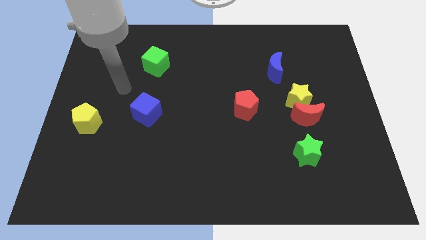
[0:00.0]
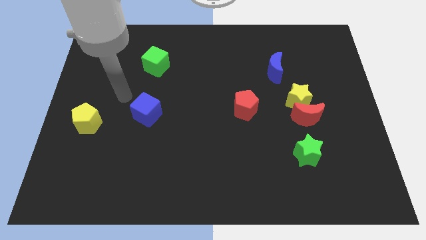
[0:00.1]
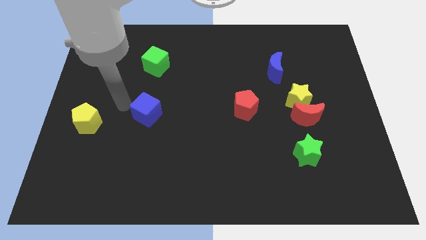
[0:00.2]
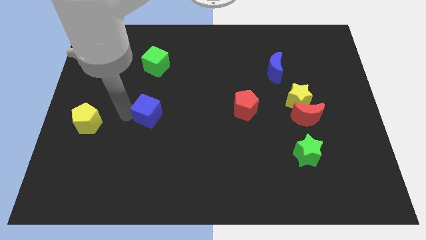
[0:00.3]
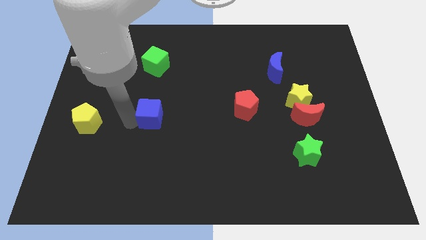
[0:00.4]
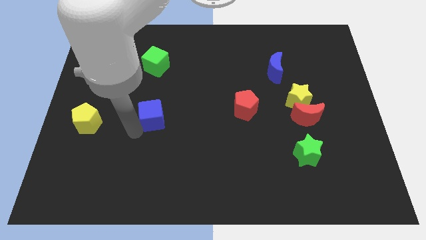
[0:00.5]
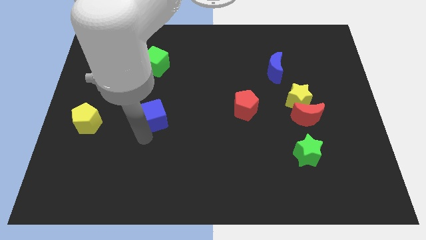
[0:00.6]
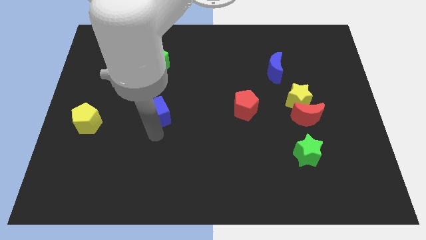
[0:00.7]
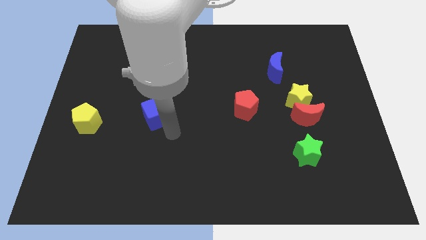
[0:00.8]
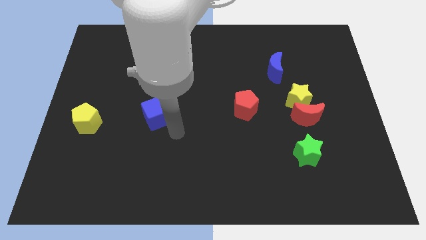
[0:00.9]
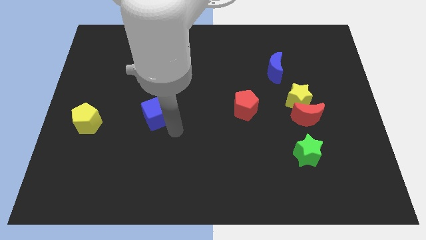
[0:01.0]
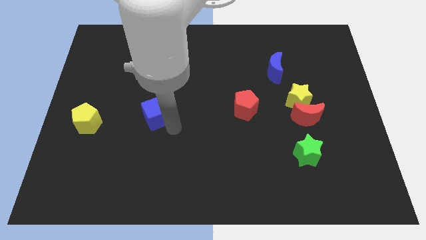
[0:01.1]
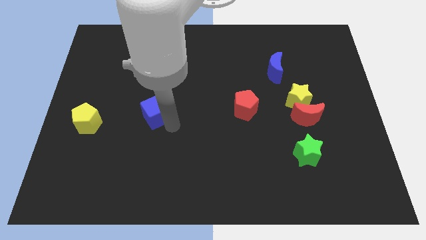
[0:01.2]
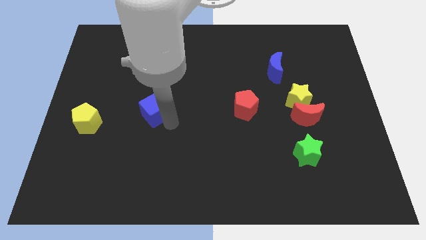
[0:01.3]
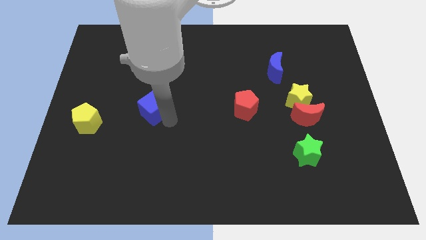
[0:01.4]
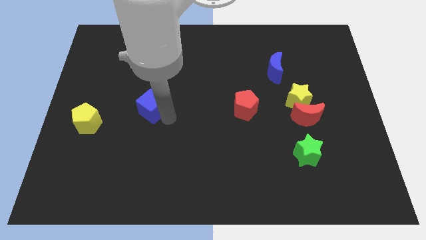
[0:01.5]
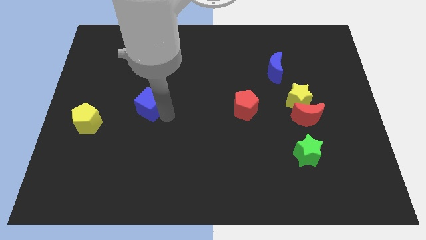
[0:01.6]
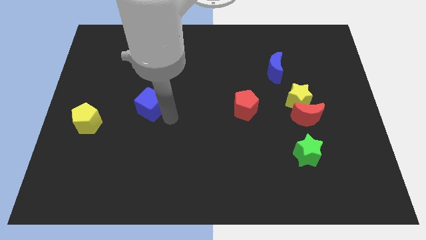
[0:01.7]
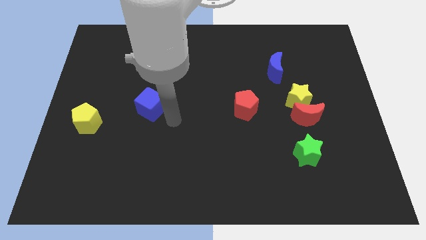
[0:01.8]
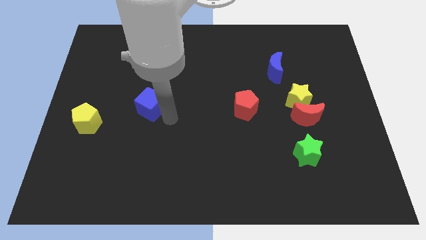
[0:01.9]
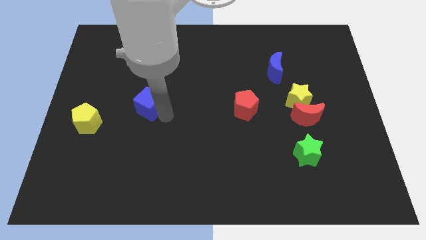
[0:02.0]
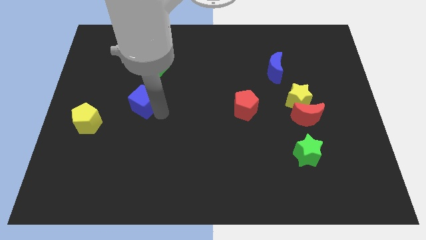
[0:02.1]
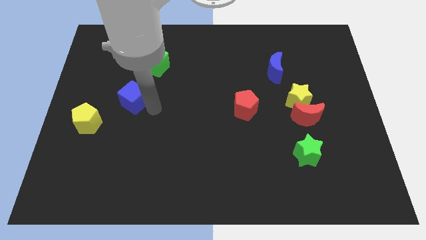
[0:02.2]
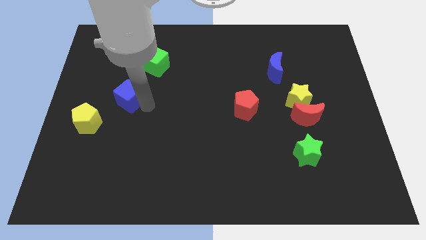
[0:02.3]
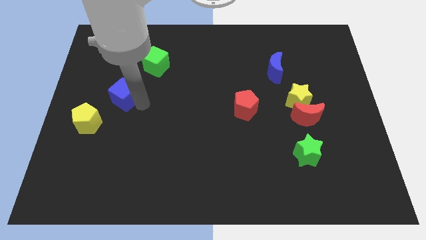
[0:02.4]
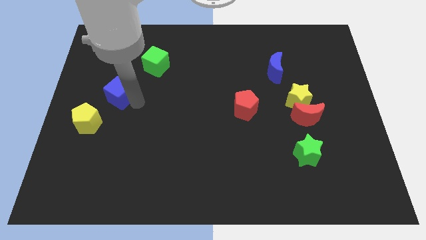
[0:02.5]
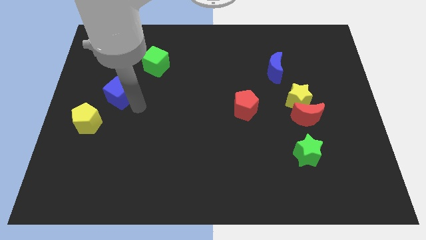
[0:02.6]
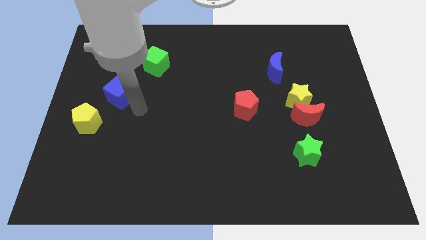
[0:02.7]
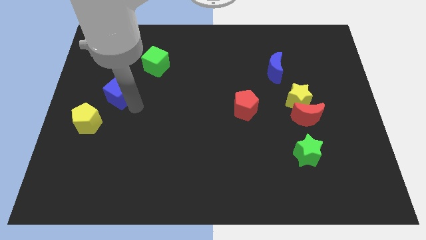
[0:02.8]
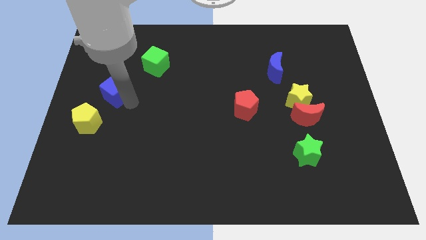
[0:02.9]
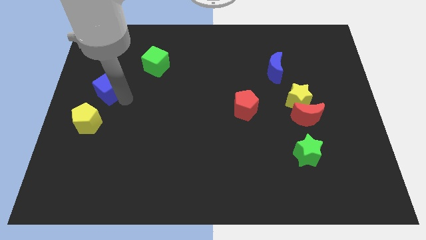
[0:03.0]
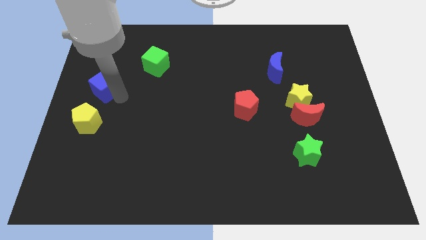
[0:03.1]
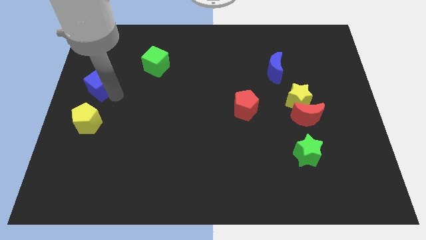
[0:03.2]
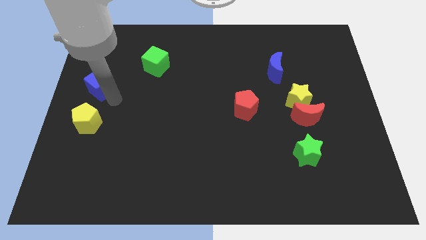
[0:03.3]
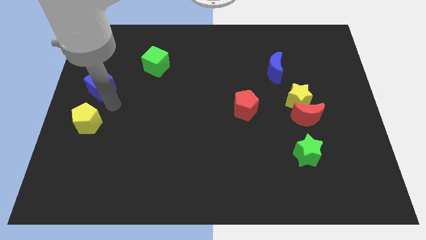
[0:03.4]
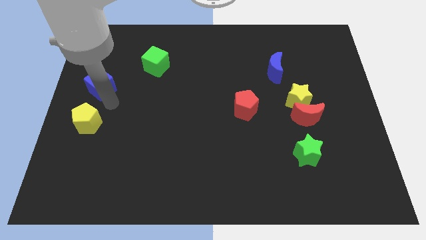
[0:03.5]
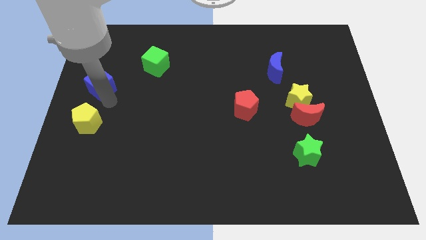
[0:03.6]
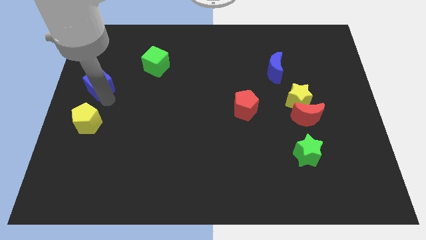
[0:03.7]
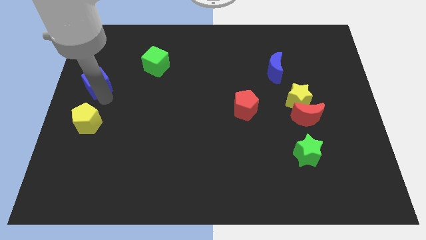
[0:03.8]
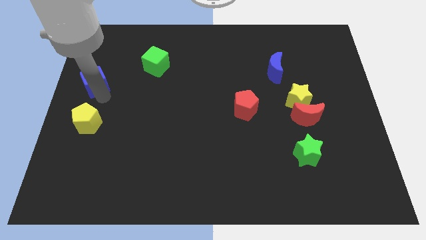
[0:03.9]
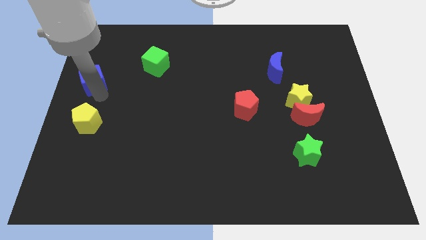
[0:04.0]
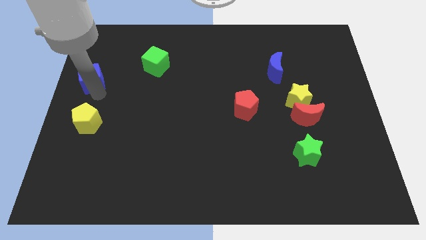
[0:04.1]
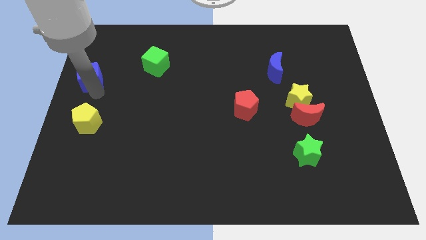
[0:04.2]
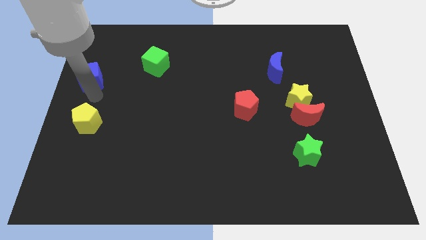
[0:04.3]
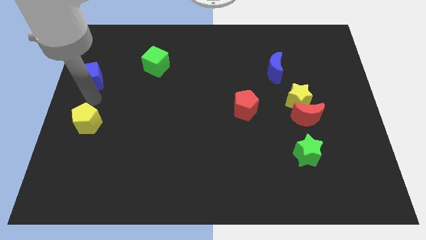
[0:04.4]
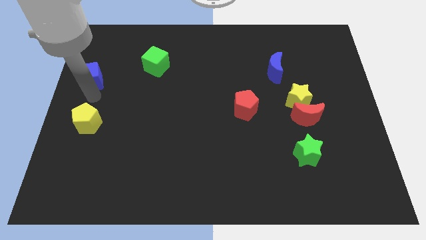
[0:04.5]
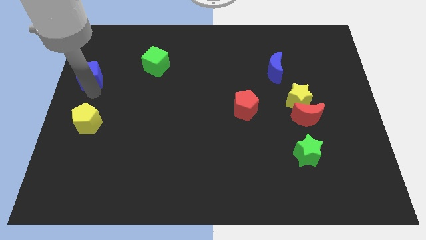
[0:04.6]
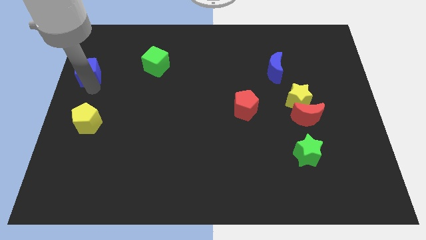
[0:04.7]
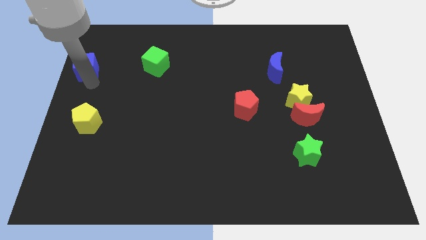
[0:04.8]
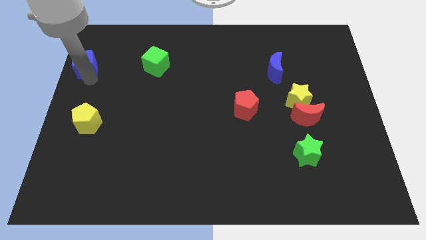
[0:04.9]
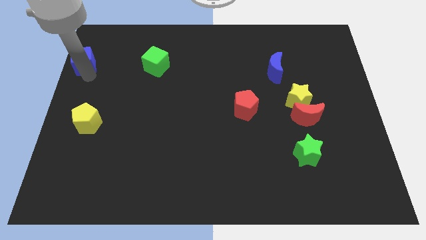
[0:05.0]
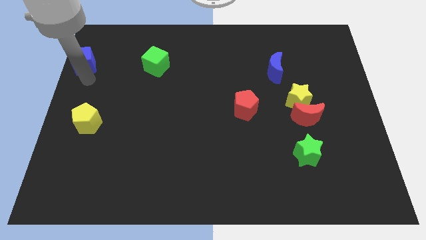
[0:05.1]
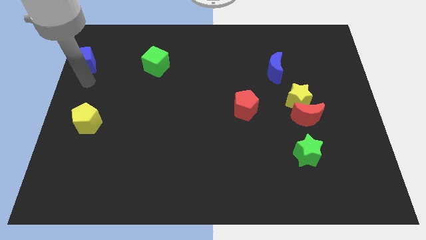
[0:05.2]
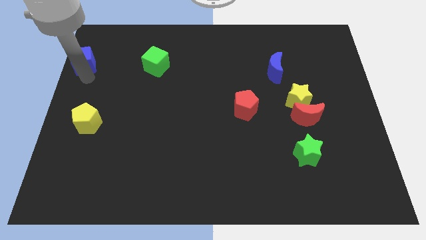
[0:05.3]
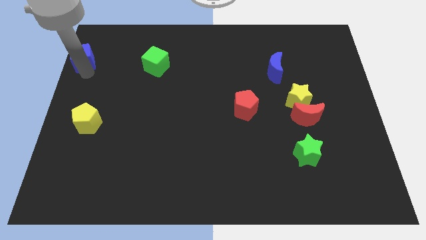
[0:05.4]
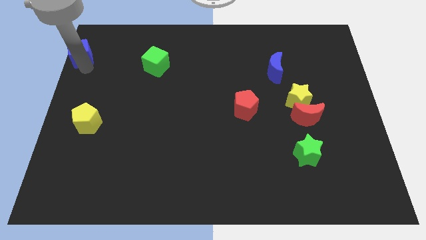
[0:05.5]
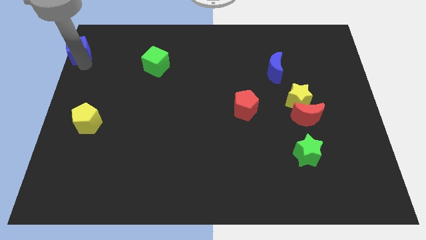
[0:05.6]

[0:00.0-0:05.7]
push the blue cube to the top left

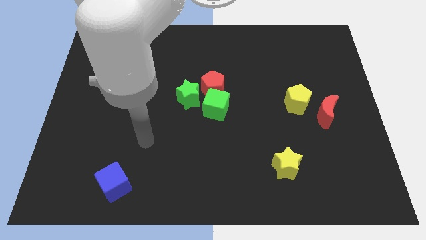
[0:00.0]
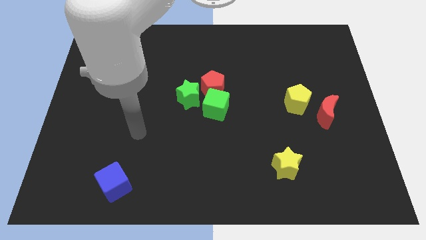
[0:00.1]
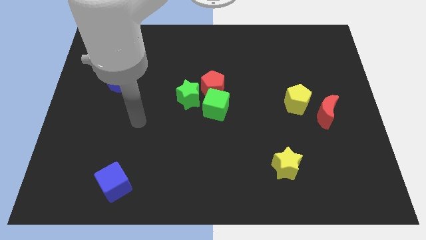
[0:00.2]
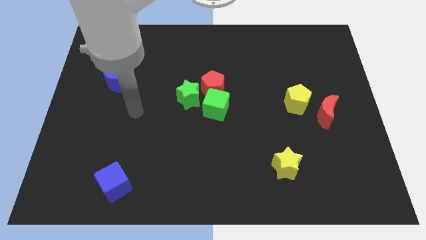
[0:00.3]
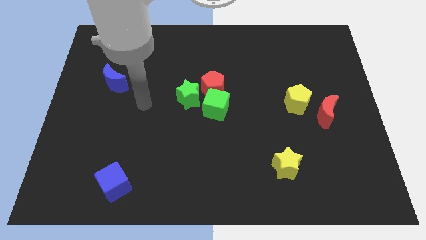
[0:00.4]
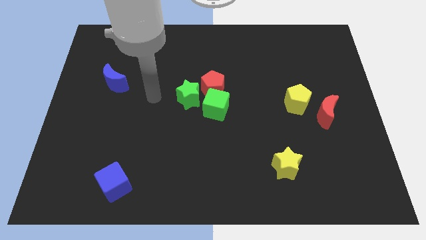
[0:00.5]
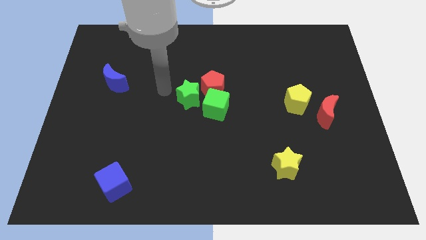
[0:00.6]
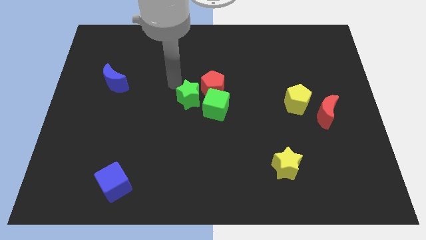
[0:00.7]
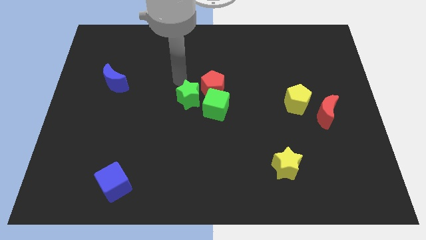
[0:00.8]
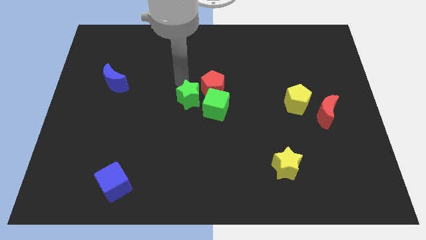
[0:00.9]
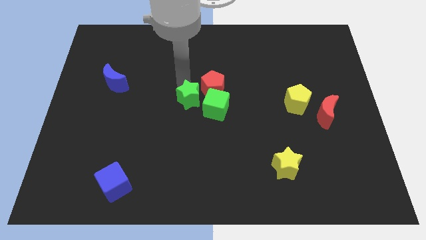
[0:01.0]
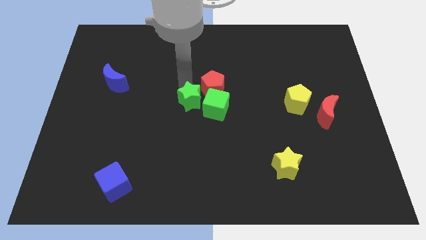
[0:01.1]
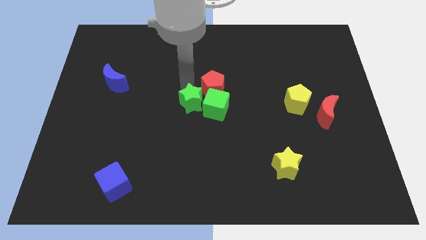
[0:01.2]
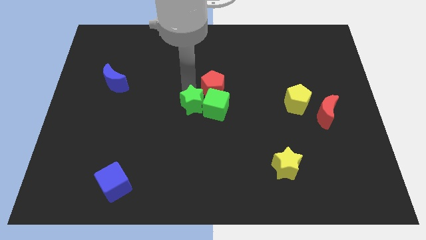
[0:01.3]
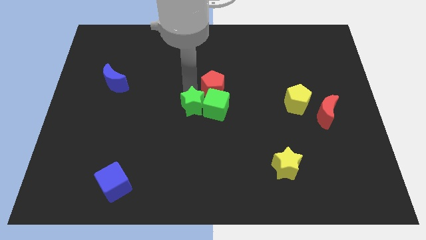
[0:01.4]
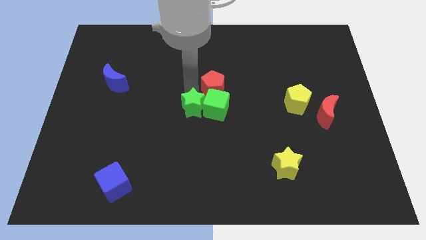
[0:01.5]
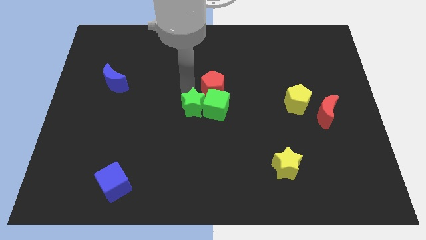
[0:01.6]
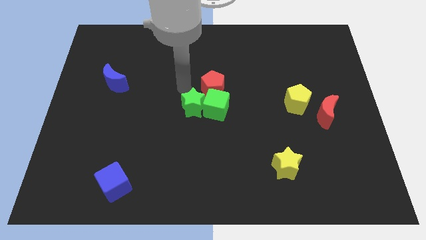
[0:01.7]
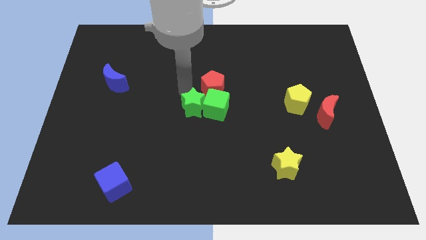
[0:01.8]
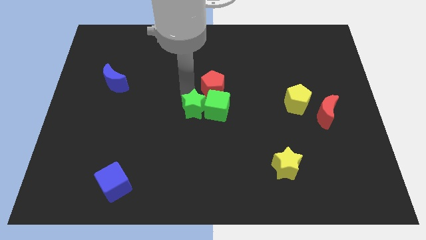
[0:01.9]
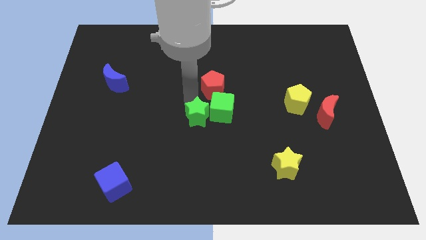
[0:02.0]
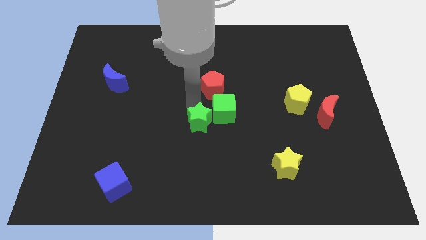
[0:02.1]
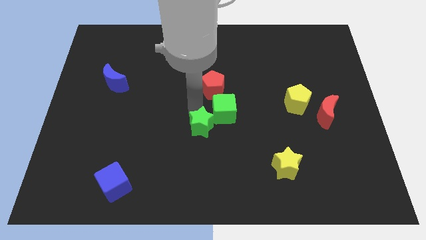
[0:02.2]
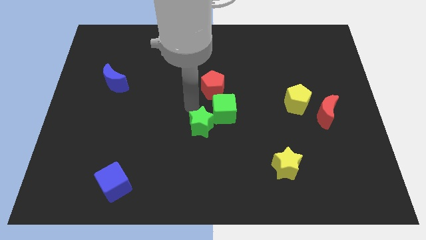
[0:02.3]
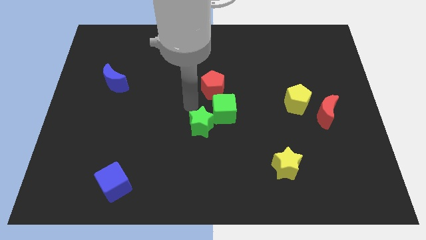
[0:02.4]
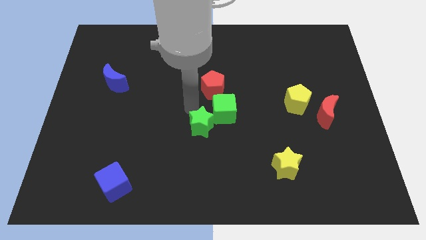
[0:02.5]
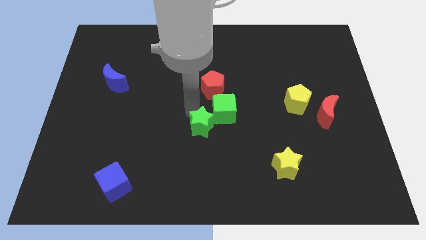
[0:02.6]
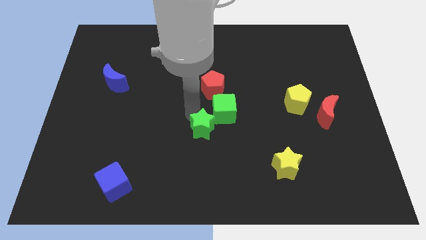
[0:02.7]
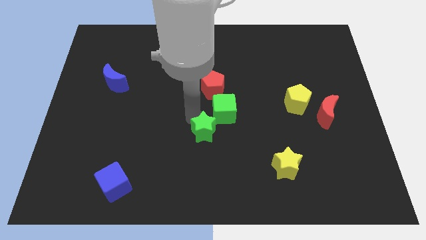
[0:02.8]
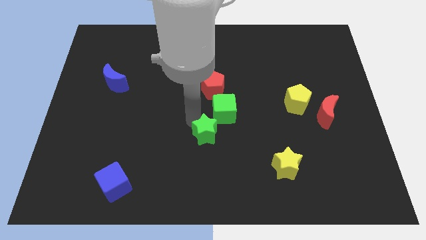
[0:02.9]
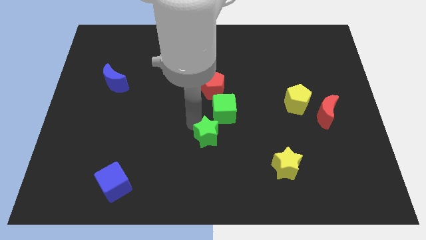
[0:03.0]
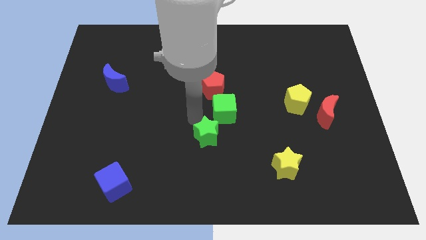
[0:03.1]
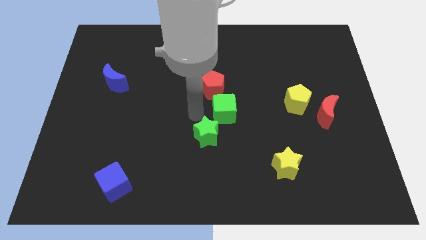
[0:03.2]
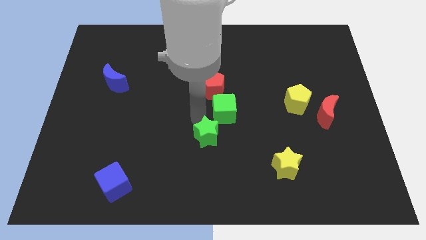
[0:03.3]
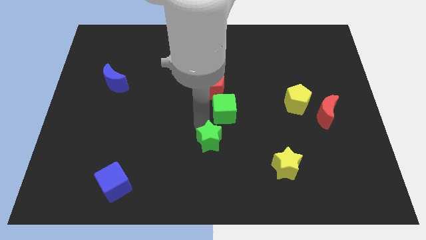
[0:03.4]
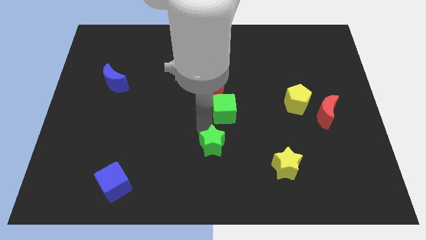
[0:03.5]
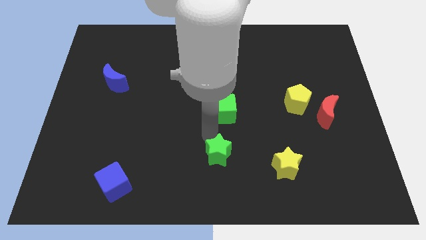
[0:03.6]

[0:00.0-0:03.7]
put the green star to the bottom
